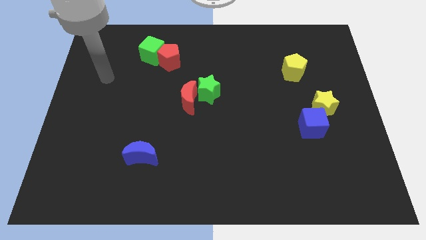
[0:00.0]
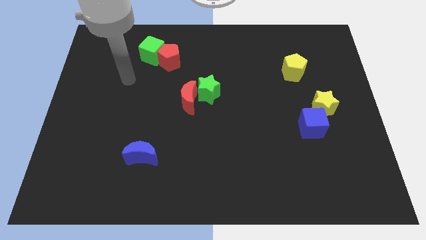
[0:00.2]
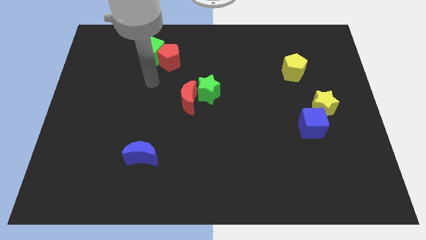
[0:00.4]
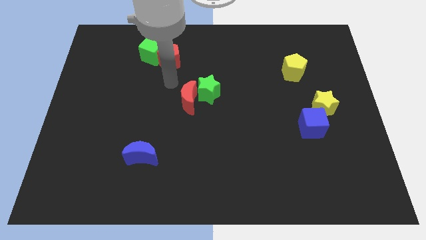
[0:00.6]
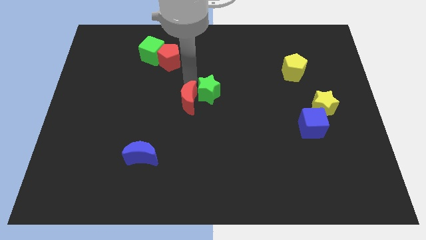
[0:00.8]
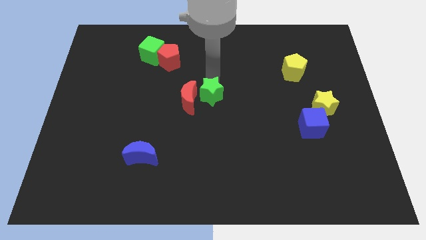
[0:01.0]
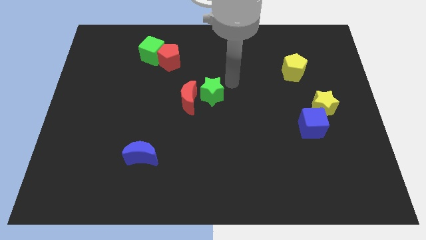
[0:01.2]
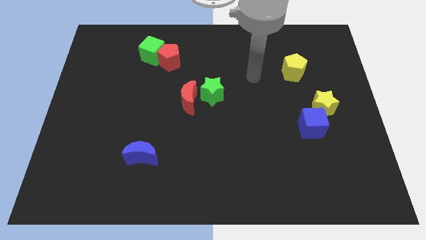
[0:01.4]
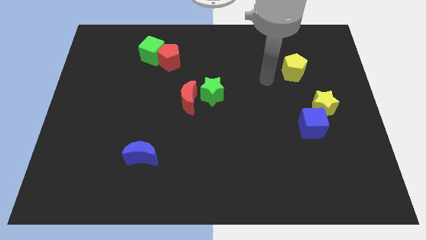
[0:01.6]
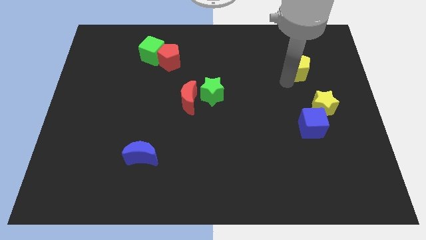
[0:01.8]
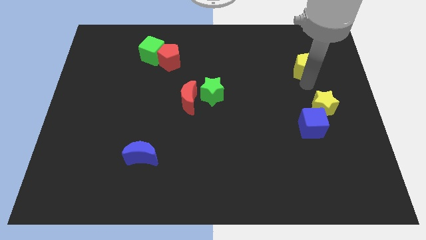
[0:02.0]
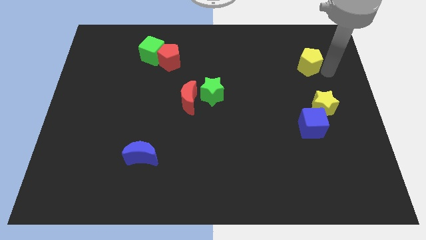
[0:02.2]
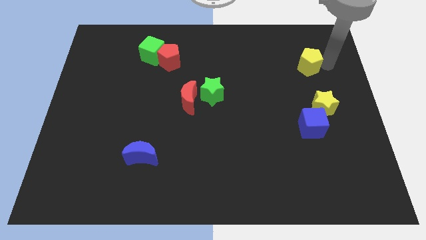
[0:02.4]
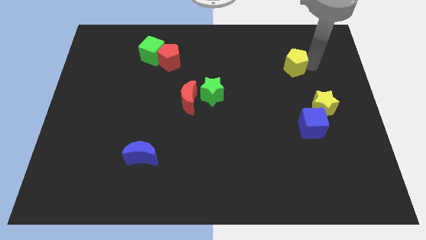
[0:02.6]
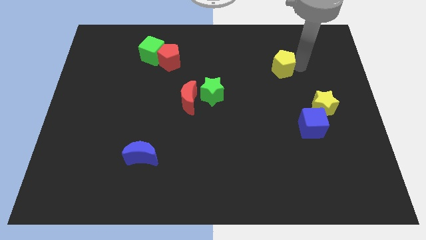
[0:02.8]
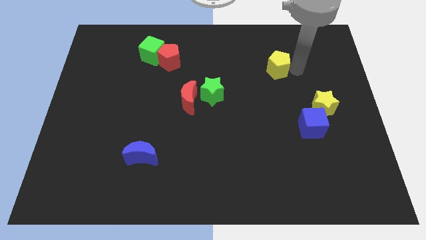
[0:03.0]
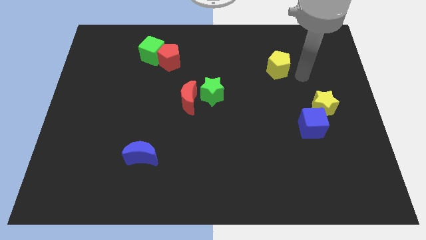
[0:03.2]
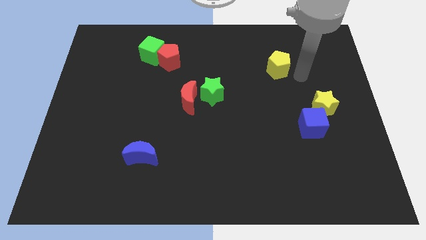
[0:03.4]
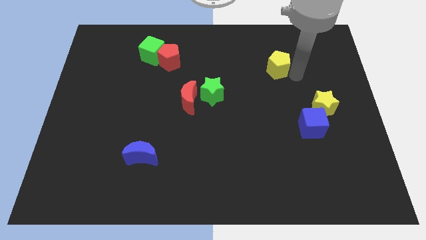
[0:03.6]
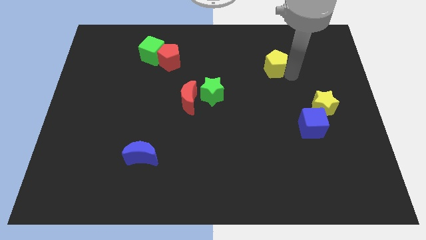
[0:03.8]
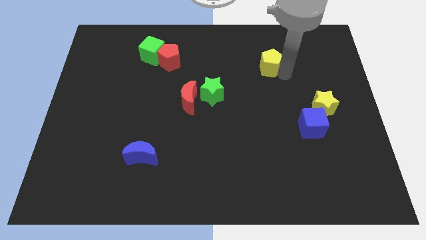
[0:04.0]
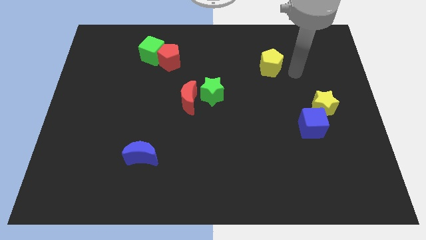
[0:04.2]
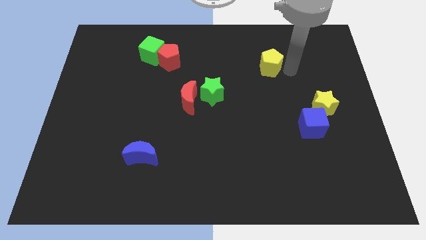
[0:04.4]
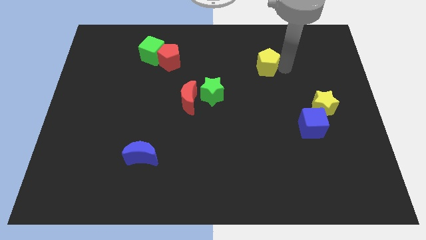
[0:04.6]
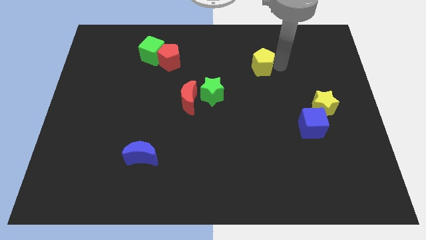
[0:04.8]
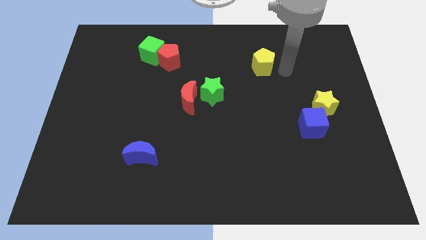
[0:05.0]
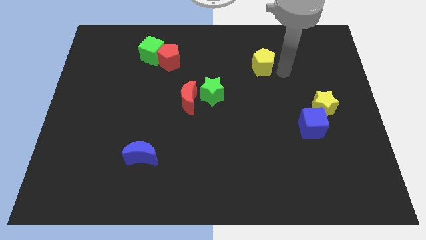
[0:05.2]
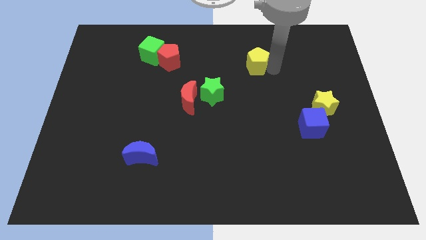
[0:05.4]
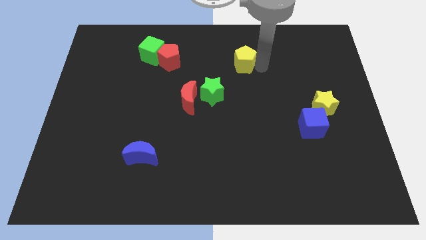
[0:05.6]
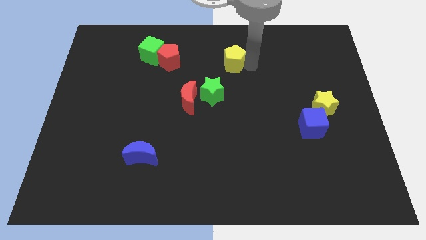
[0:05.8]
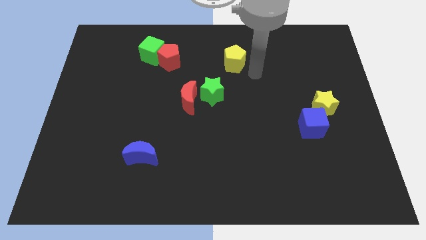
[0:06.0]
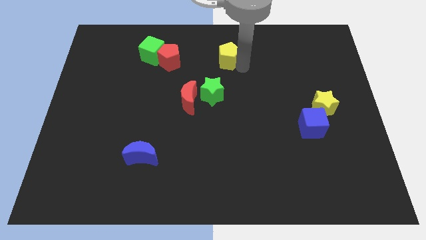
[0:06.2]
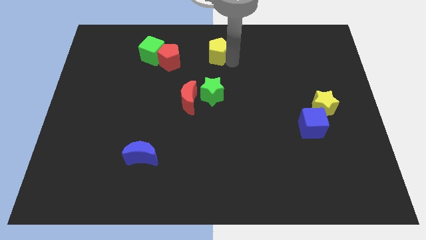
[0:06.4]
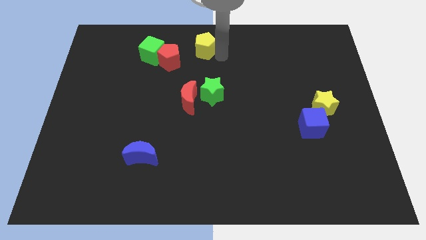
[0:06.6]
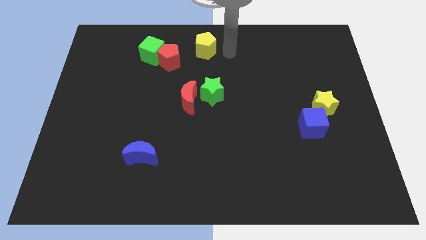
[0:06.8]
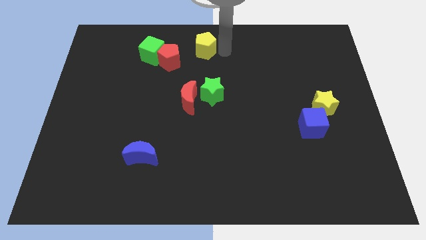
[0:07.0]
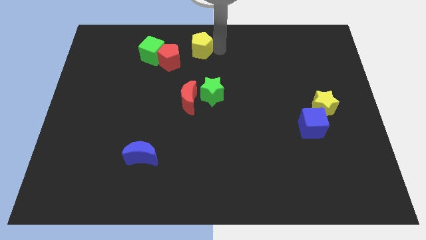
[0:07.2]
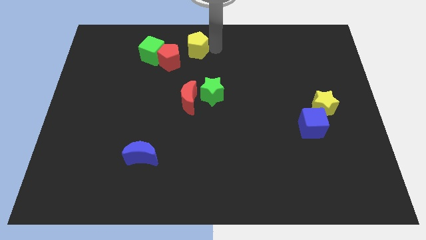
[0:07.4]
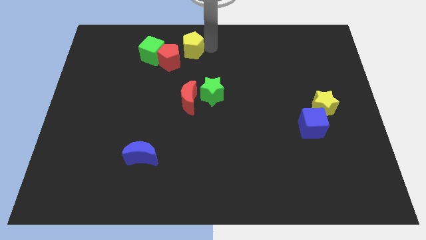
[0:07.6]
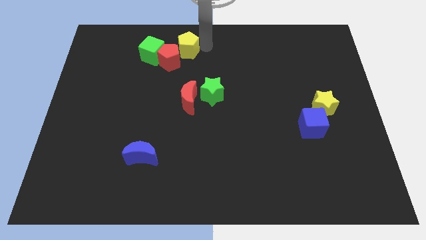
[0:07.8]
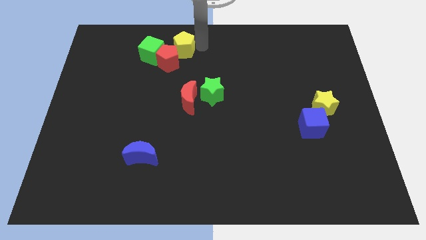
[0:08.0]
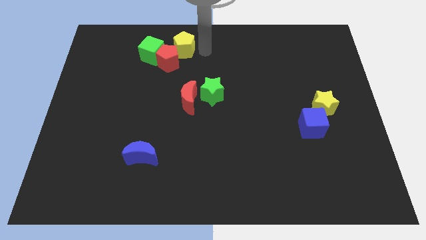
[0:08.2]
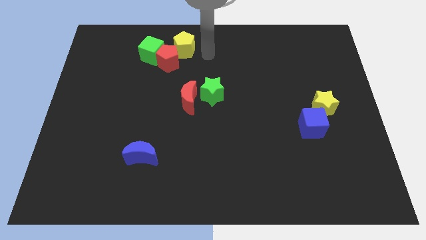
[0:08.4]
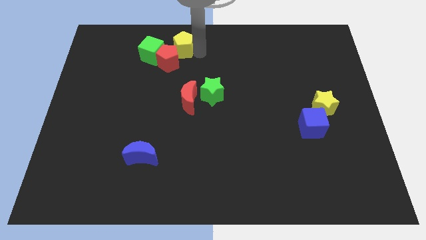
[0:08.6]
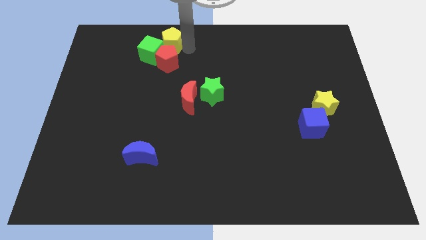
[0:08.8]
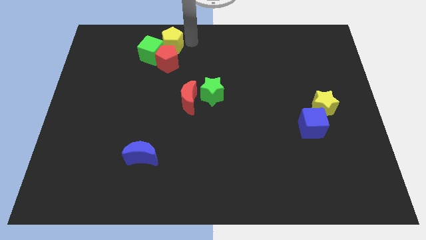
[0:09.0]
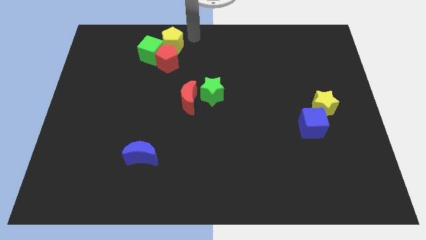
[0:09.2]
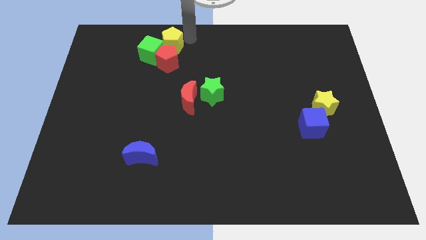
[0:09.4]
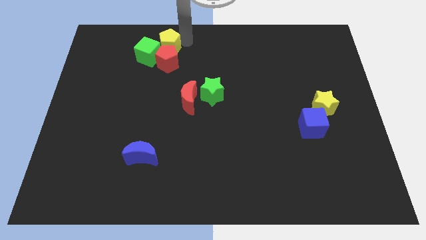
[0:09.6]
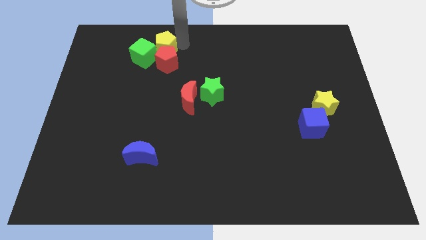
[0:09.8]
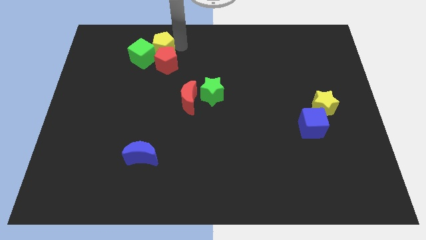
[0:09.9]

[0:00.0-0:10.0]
push the yellow pentagon next to the green cube

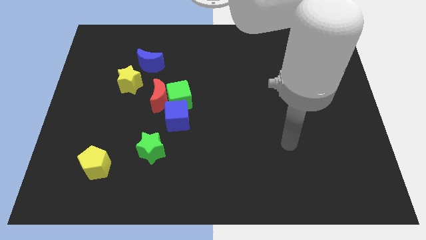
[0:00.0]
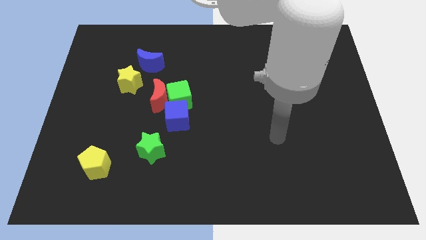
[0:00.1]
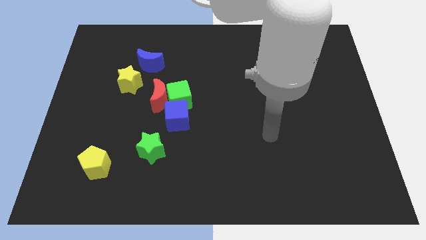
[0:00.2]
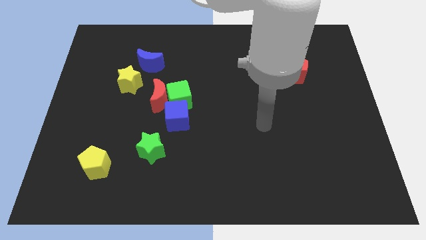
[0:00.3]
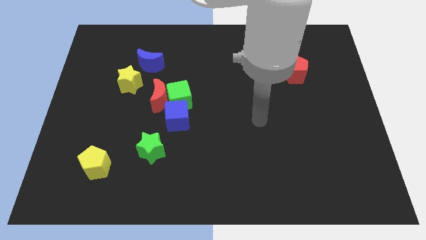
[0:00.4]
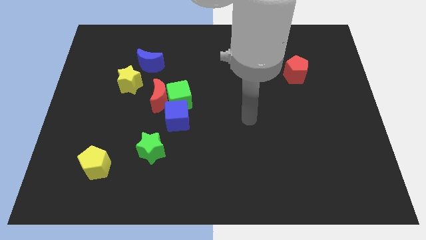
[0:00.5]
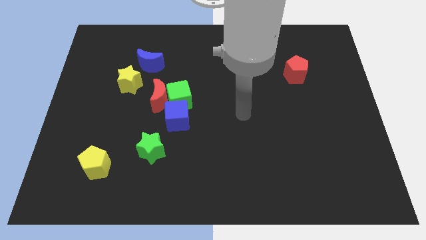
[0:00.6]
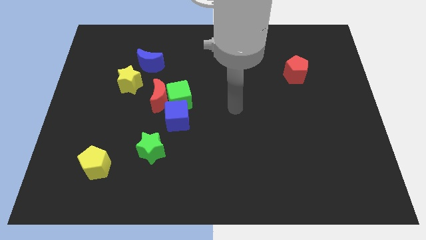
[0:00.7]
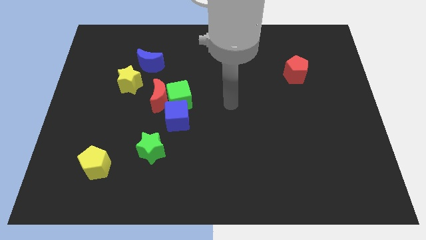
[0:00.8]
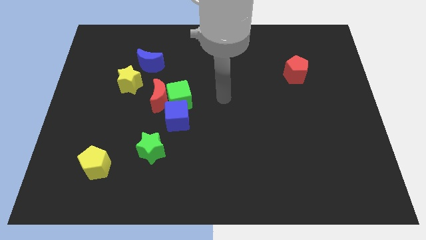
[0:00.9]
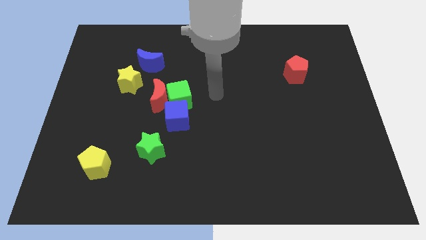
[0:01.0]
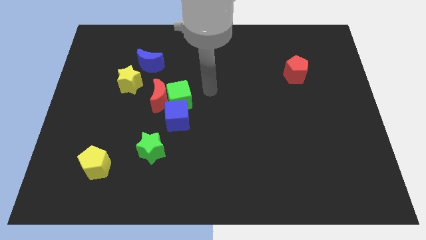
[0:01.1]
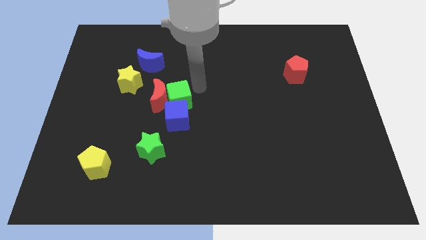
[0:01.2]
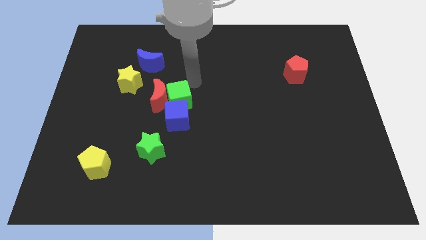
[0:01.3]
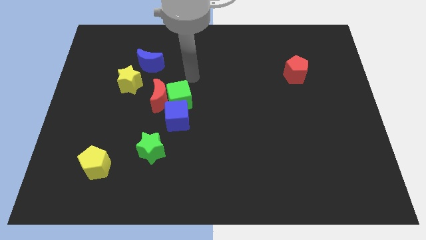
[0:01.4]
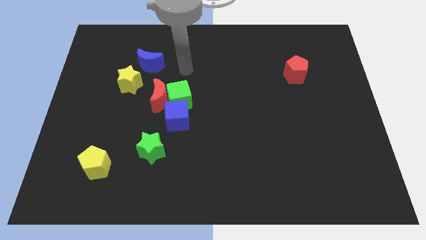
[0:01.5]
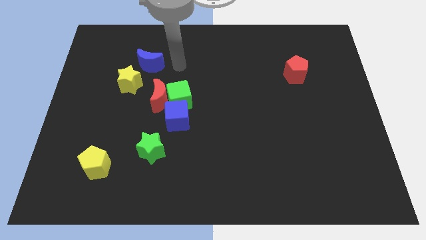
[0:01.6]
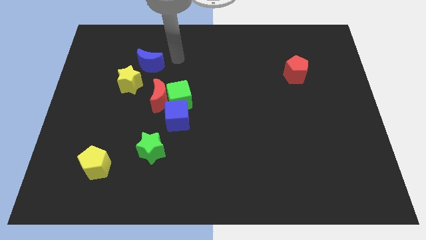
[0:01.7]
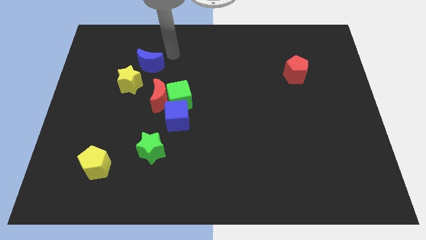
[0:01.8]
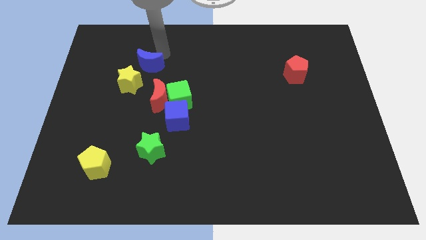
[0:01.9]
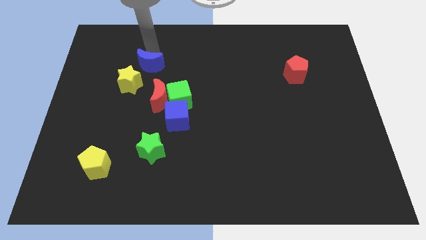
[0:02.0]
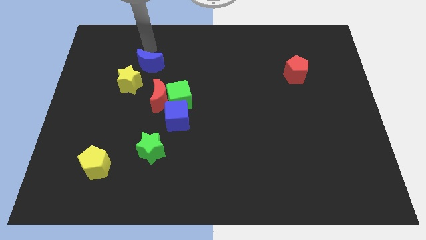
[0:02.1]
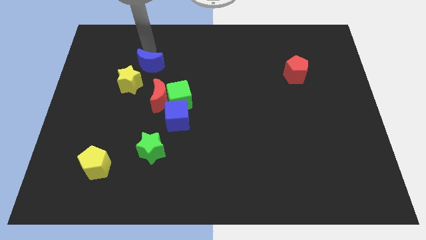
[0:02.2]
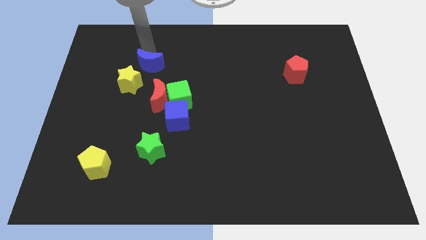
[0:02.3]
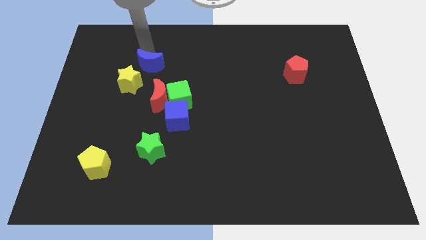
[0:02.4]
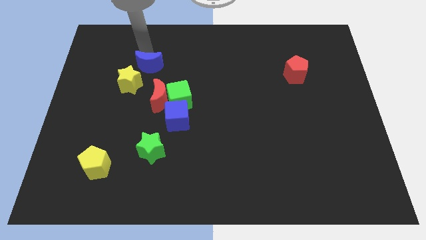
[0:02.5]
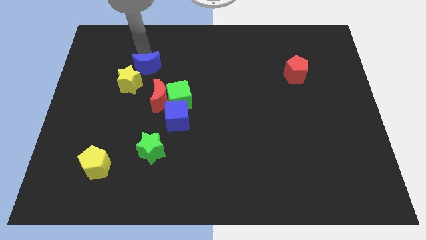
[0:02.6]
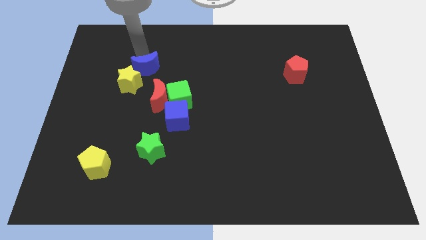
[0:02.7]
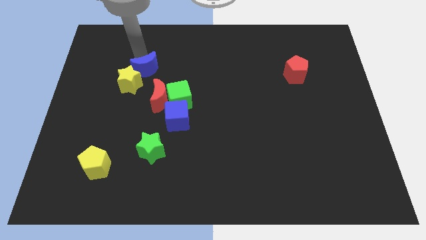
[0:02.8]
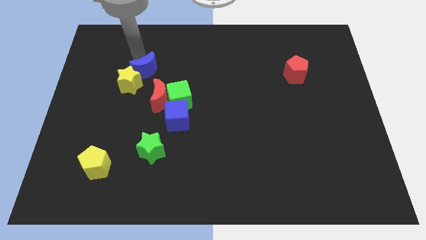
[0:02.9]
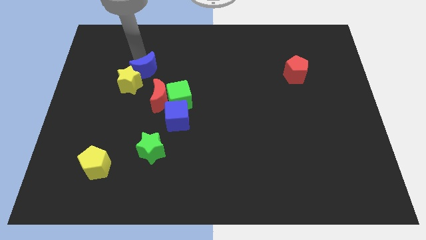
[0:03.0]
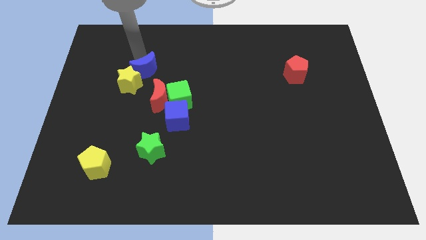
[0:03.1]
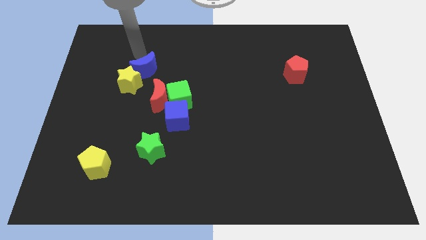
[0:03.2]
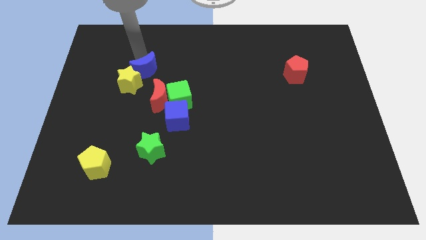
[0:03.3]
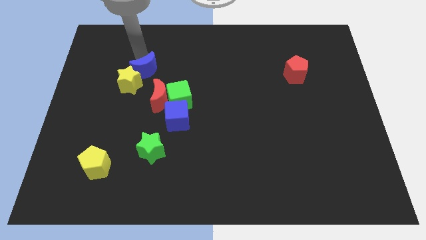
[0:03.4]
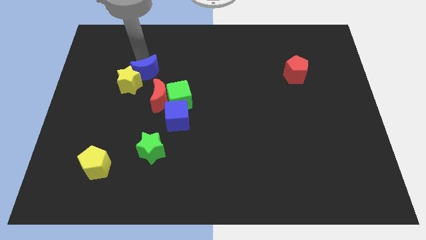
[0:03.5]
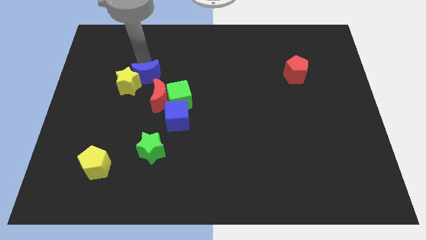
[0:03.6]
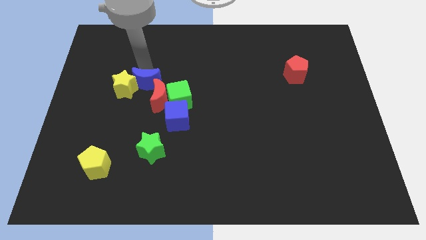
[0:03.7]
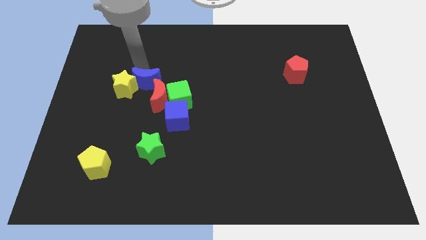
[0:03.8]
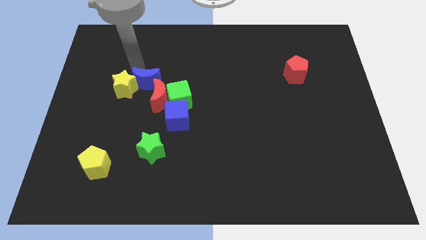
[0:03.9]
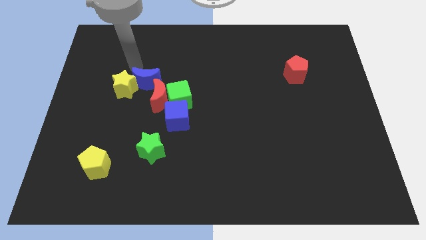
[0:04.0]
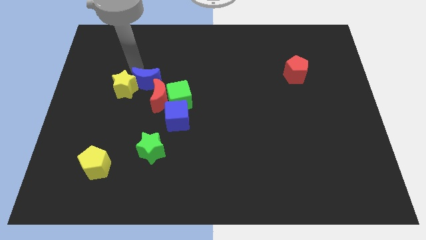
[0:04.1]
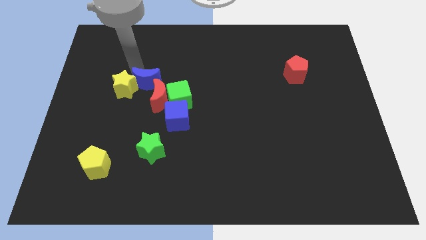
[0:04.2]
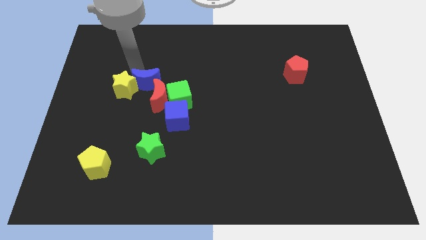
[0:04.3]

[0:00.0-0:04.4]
put the blue moon close to the red moon
